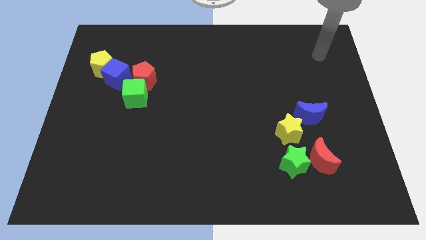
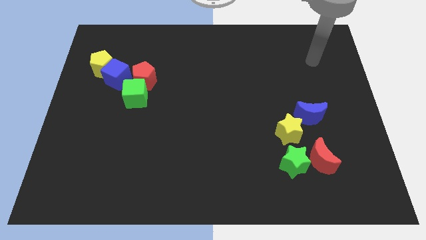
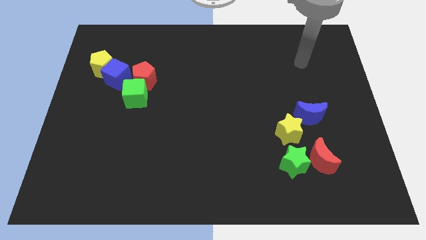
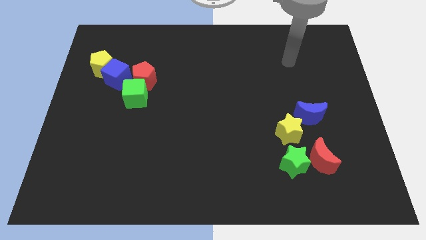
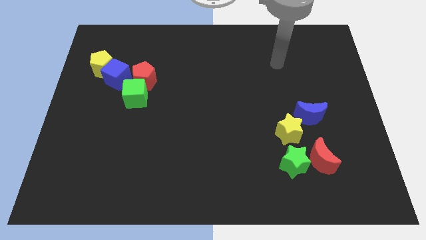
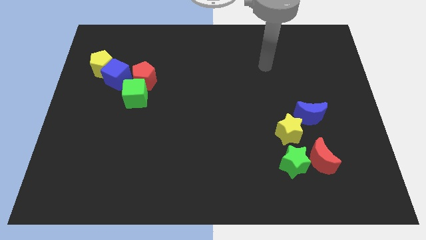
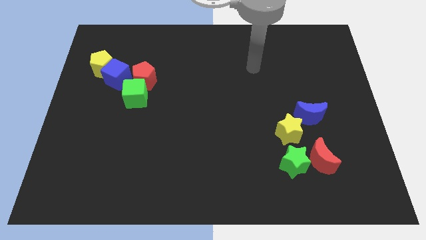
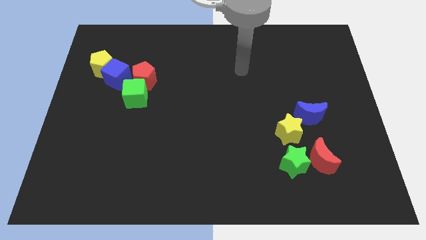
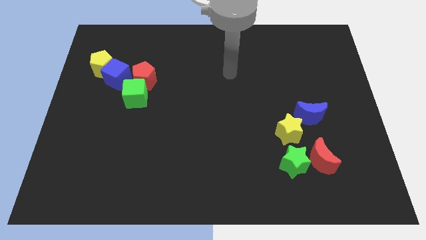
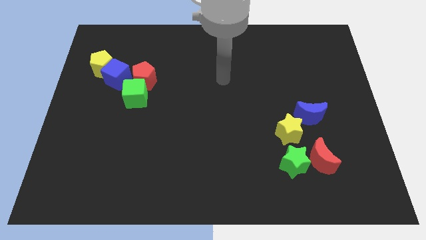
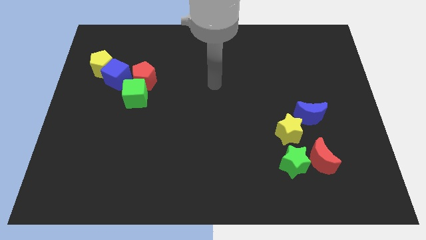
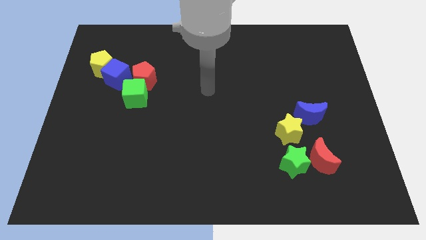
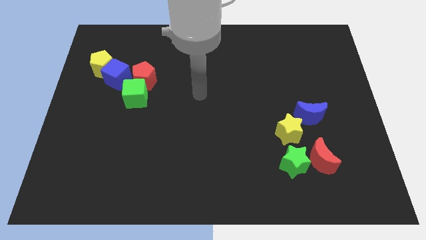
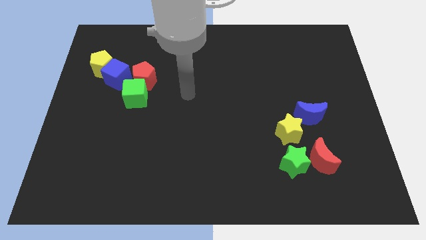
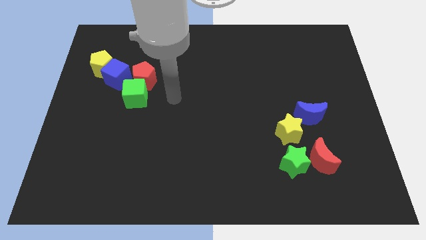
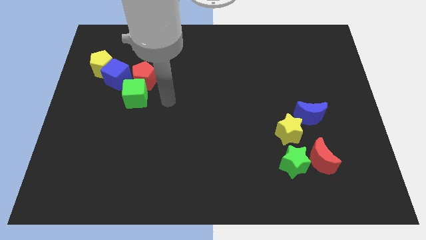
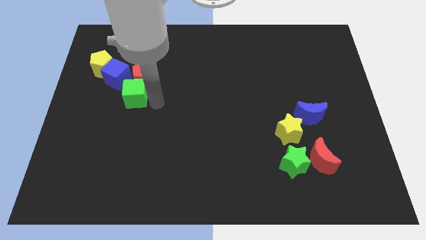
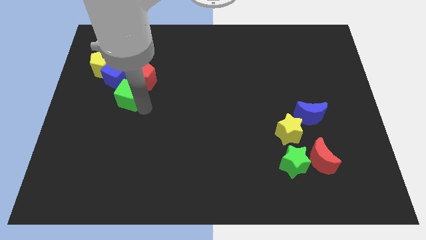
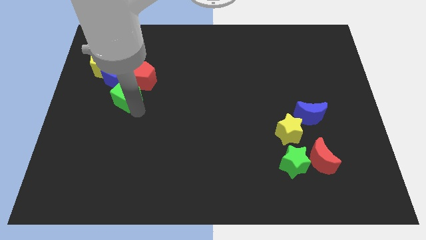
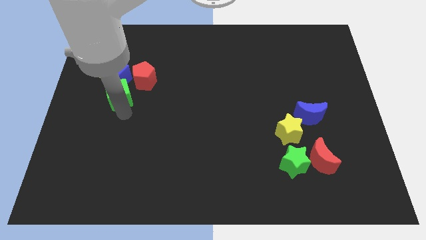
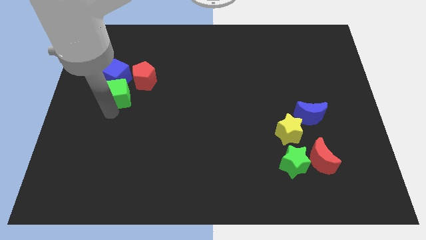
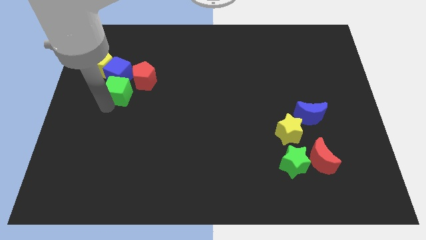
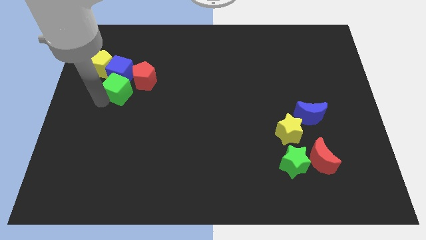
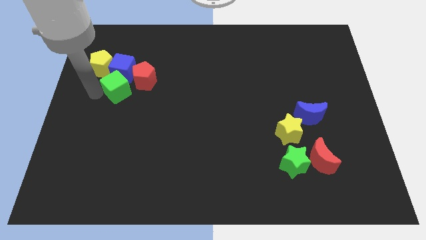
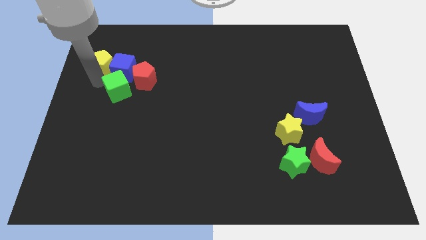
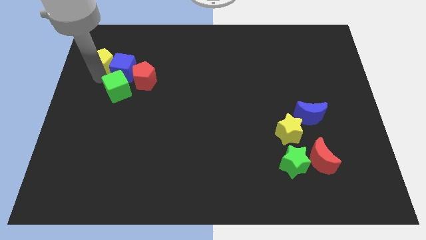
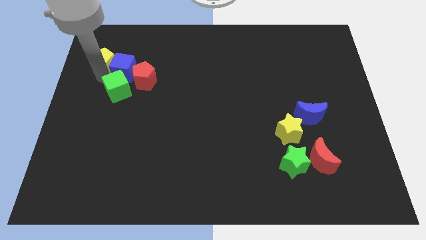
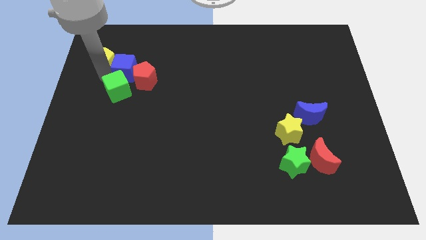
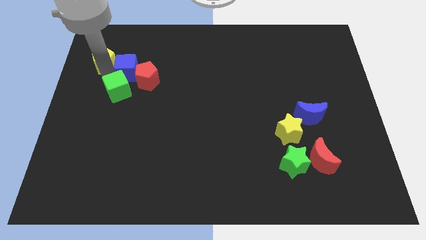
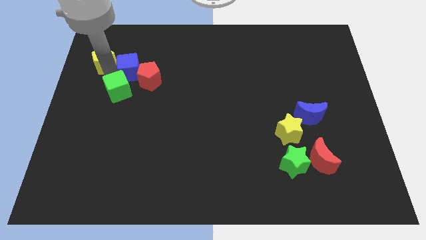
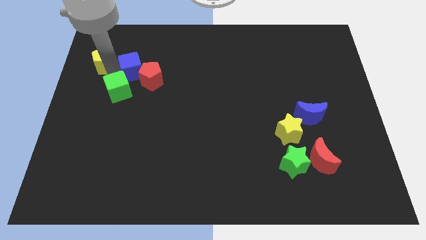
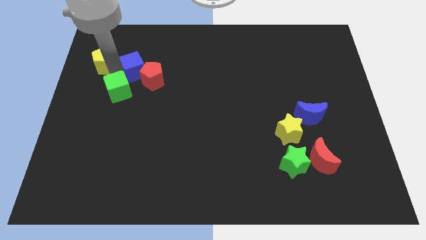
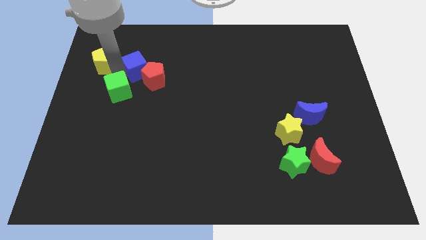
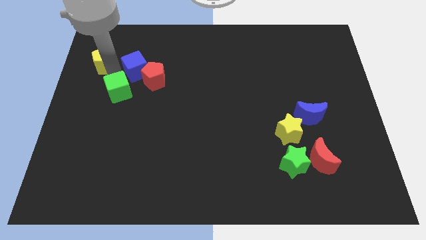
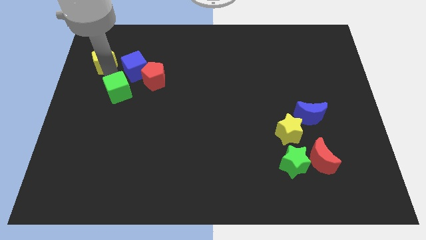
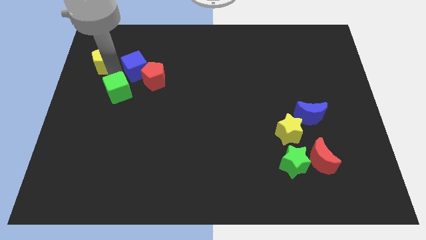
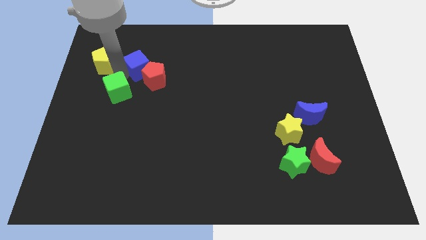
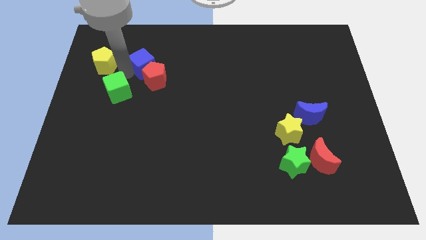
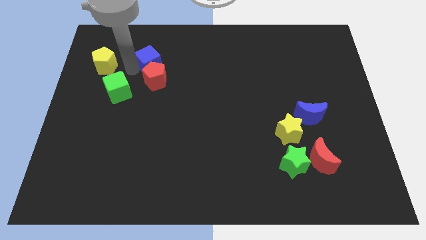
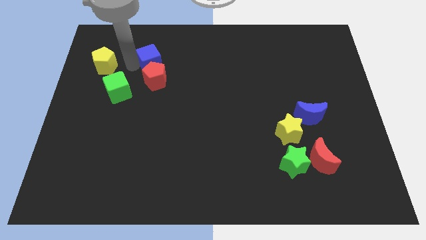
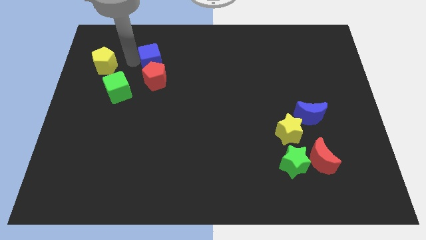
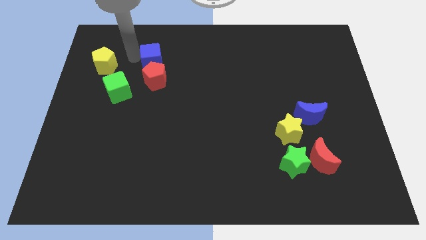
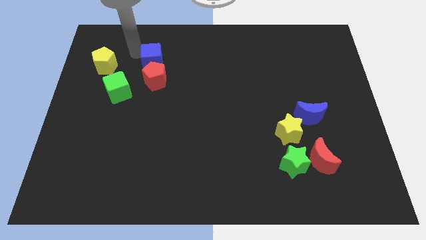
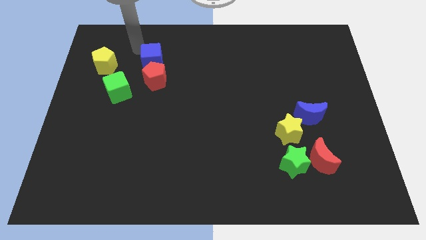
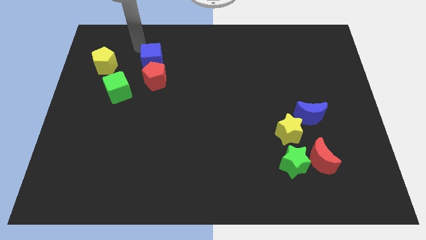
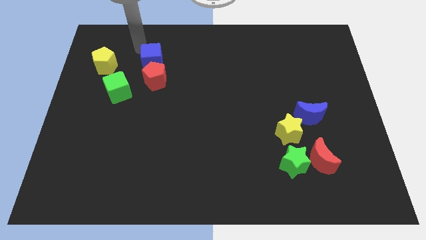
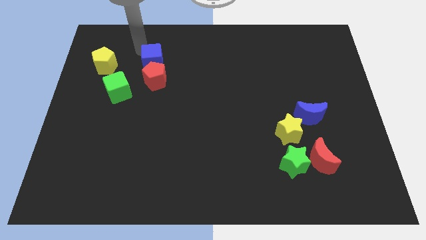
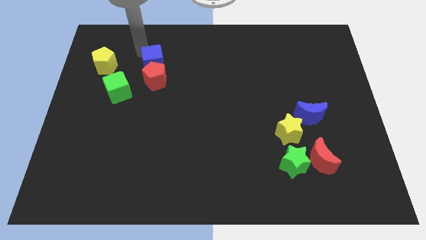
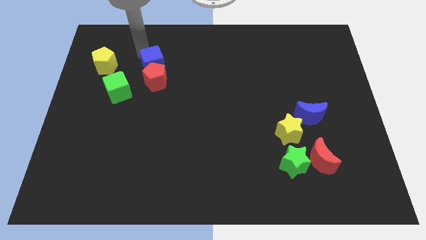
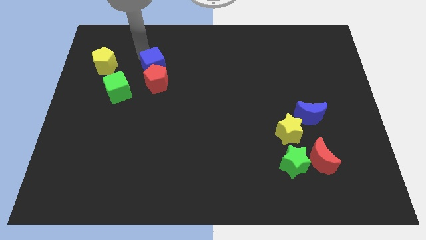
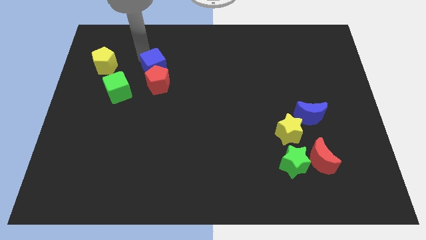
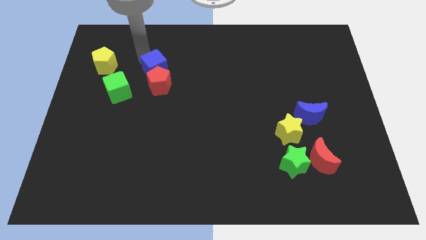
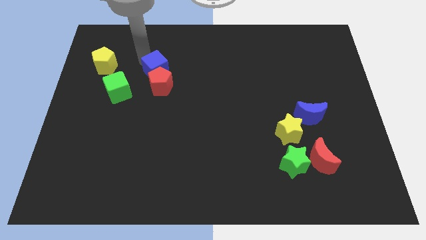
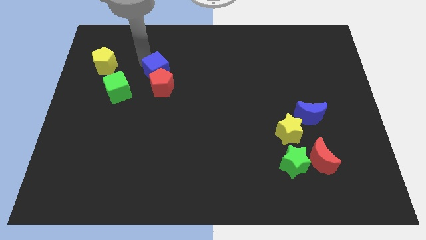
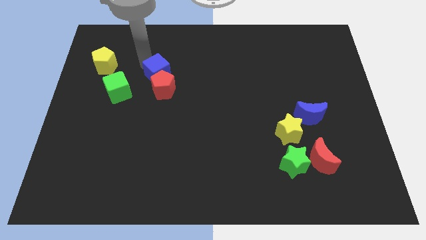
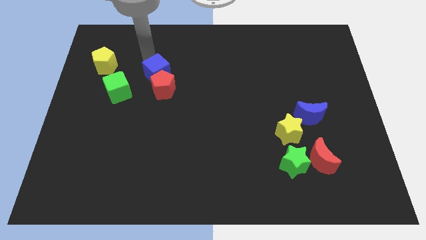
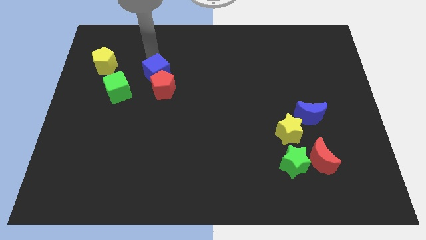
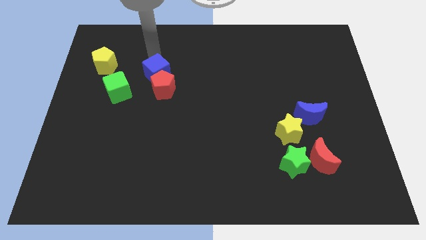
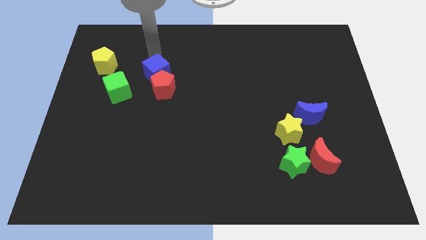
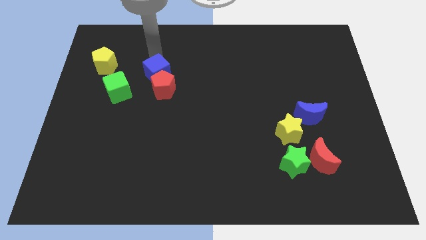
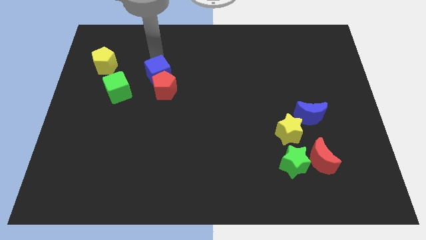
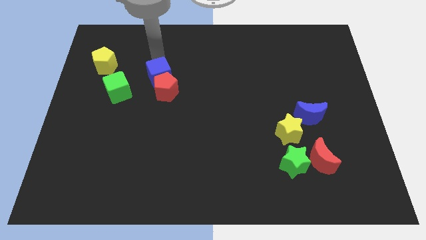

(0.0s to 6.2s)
put the blue cube just right of the green cube

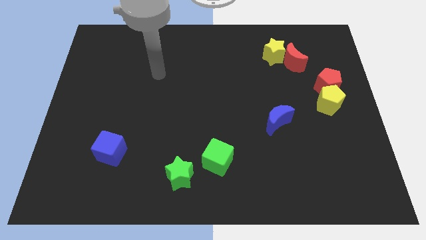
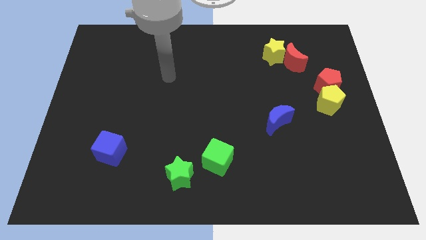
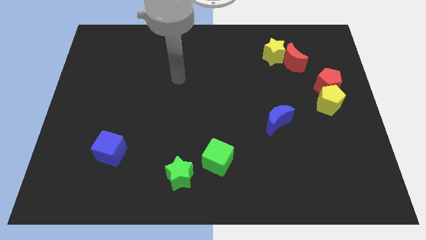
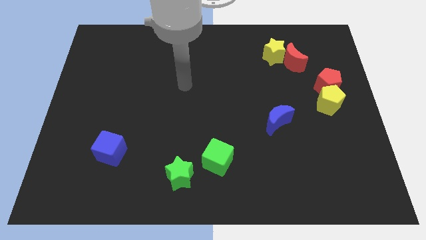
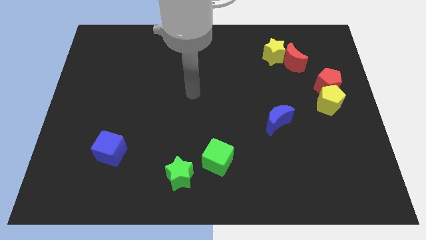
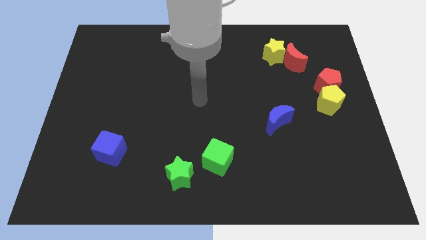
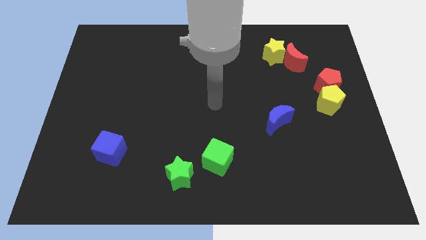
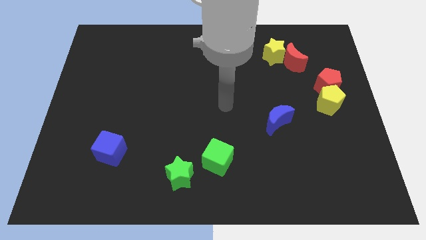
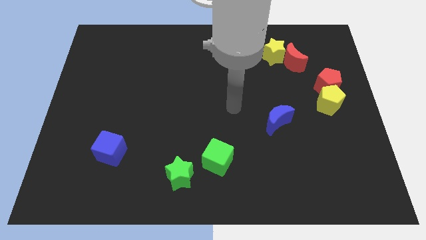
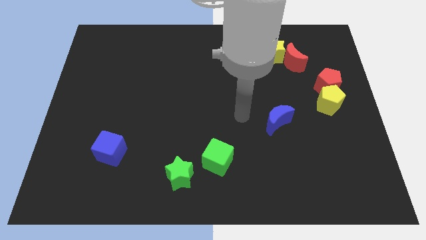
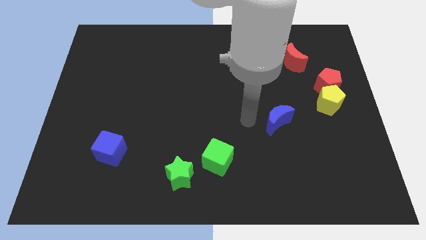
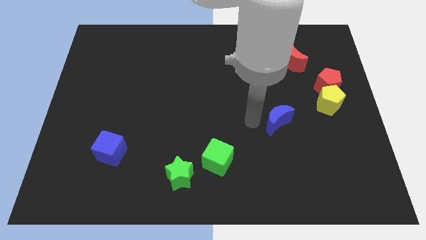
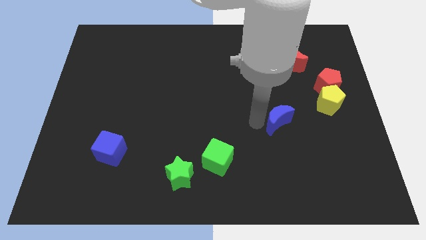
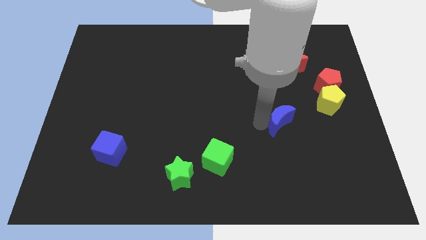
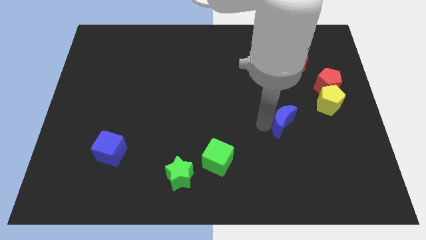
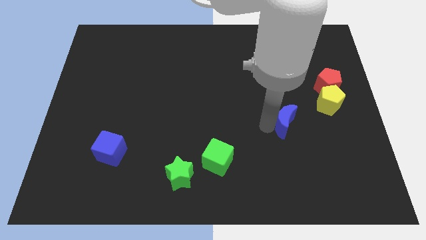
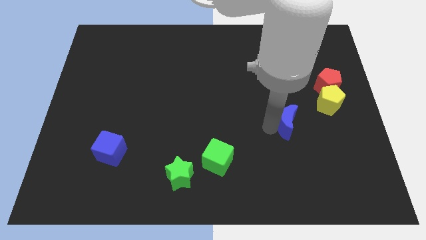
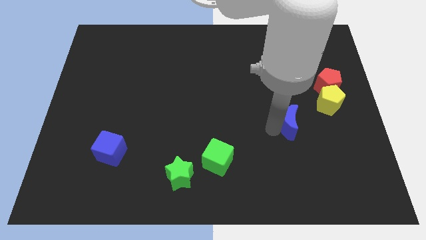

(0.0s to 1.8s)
put the blue moon to the bottom left of the yellow pentagon
